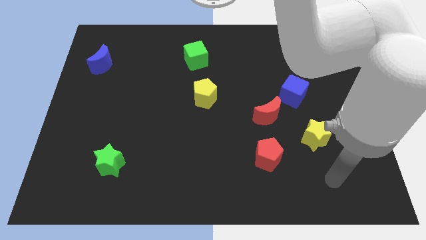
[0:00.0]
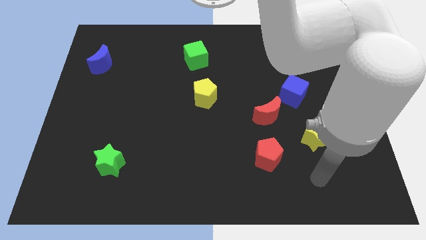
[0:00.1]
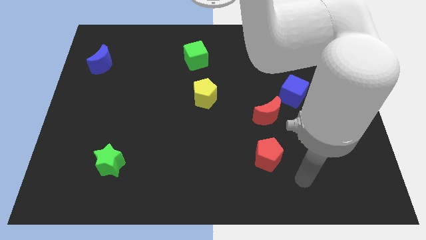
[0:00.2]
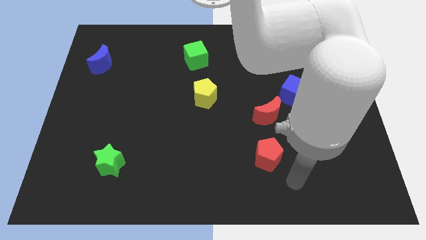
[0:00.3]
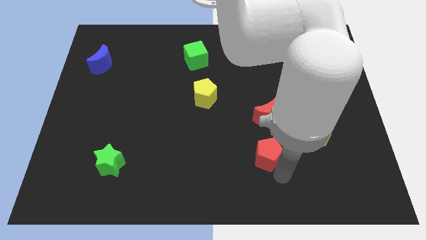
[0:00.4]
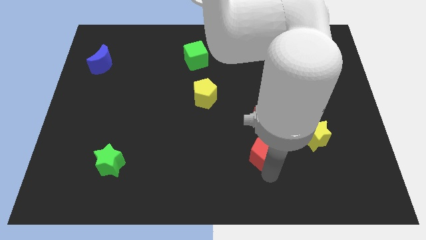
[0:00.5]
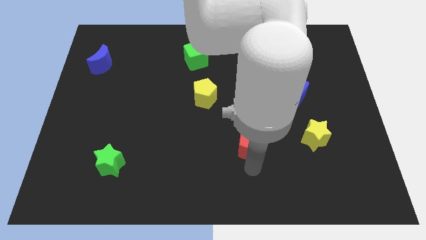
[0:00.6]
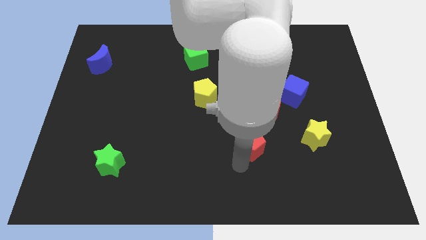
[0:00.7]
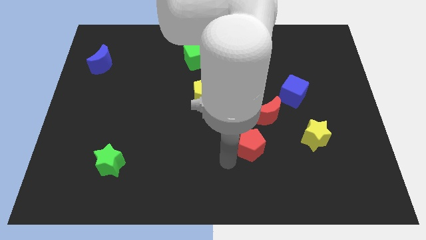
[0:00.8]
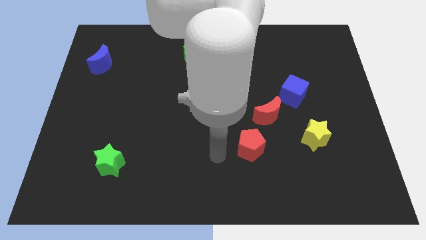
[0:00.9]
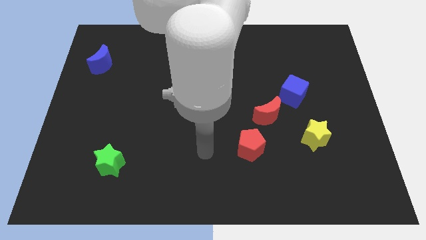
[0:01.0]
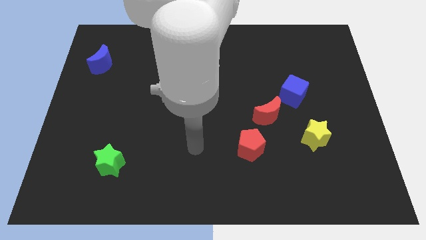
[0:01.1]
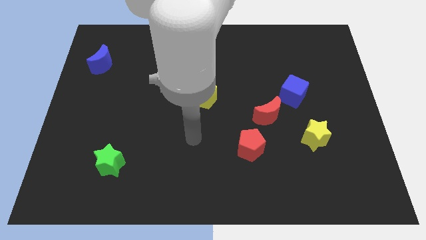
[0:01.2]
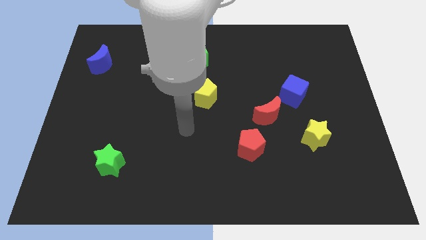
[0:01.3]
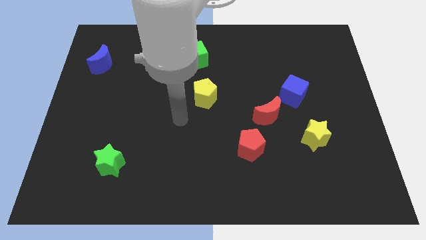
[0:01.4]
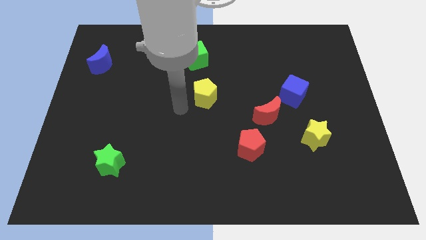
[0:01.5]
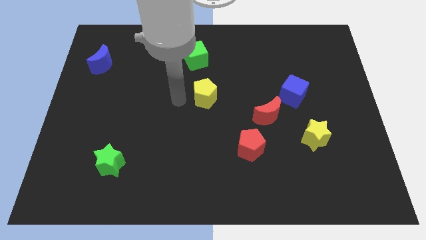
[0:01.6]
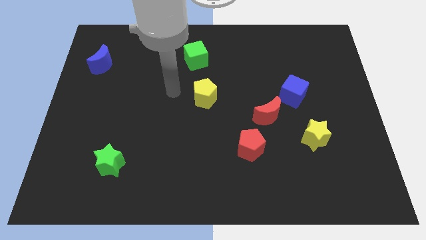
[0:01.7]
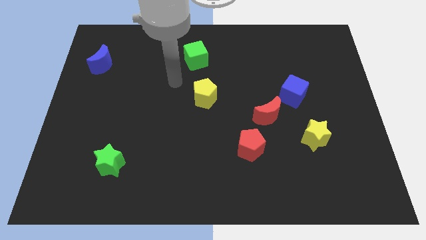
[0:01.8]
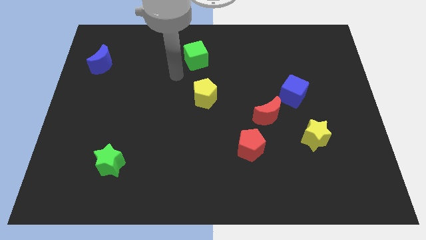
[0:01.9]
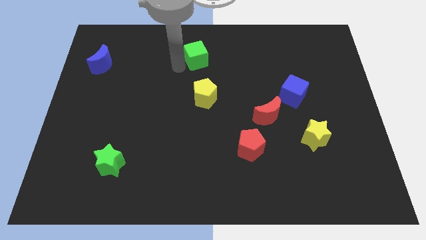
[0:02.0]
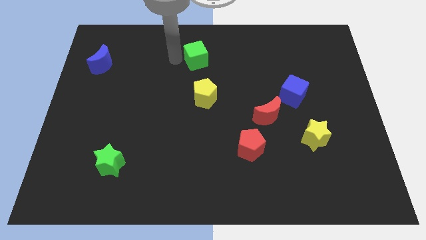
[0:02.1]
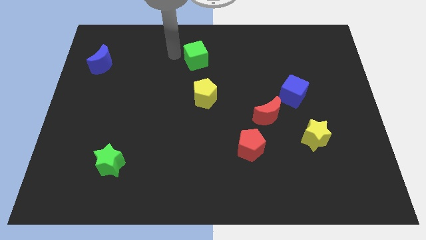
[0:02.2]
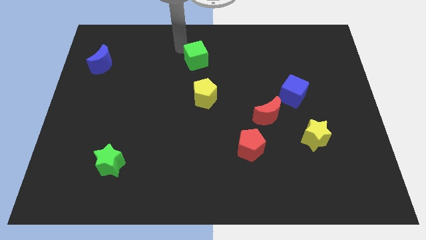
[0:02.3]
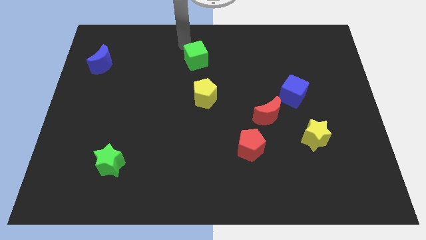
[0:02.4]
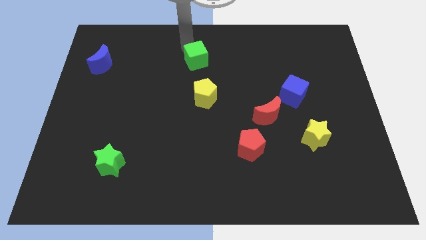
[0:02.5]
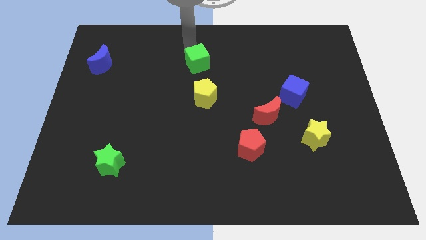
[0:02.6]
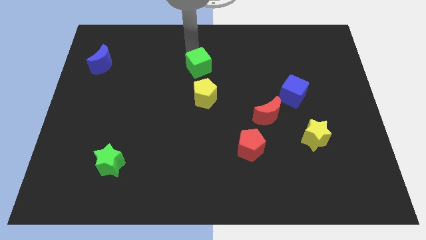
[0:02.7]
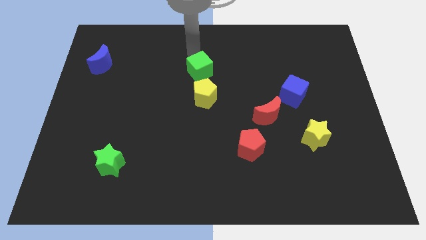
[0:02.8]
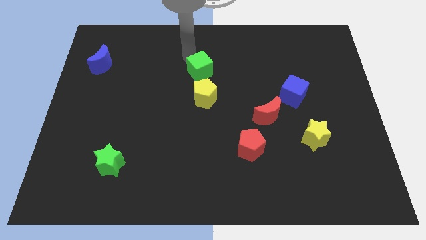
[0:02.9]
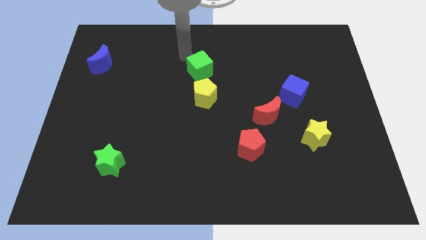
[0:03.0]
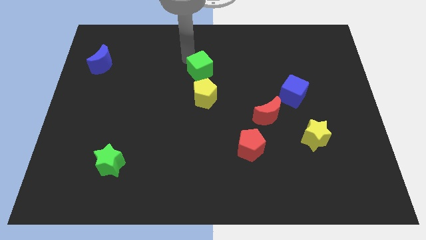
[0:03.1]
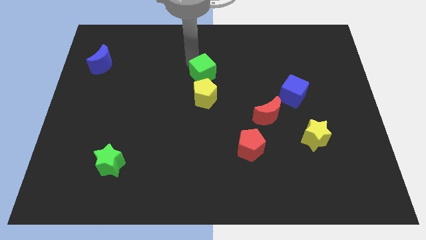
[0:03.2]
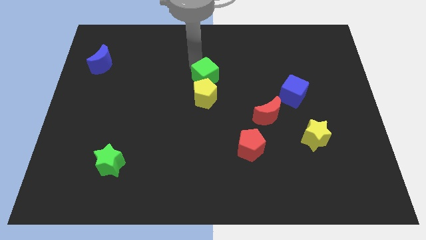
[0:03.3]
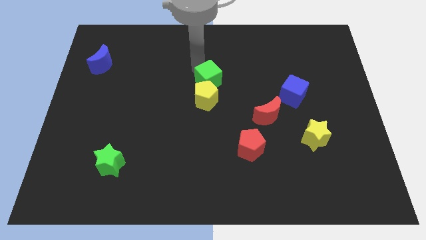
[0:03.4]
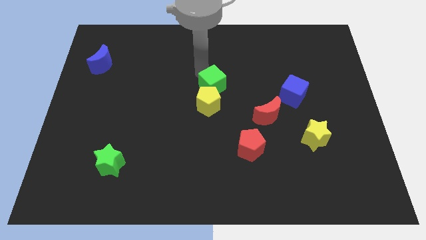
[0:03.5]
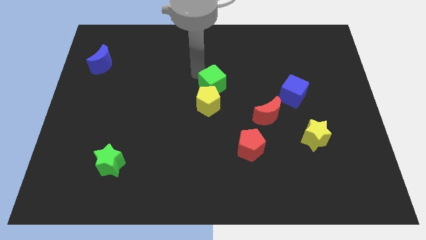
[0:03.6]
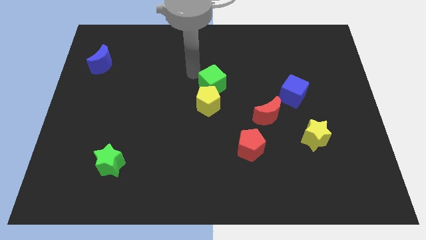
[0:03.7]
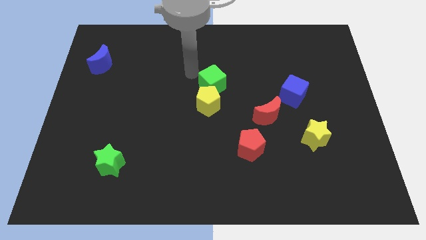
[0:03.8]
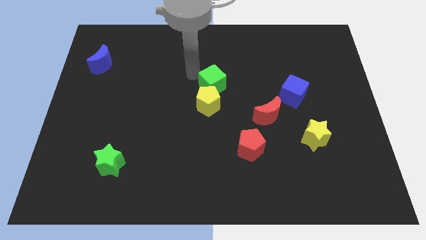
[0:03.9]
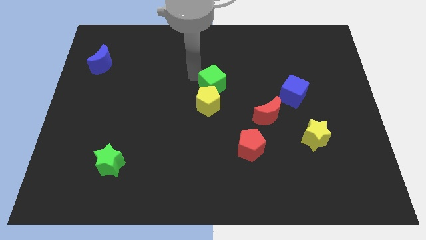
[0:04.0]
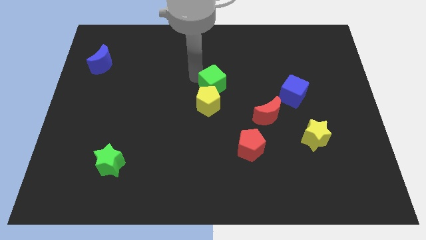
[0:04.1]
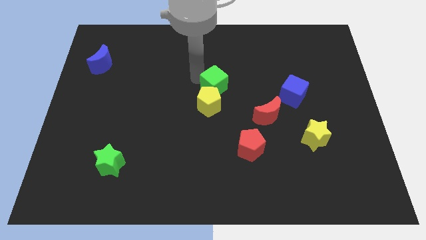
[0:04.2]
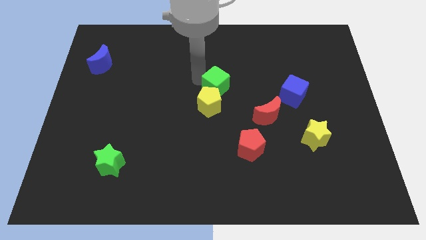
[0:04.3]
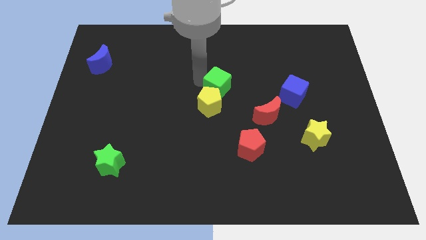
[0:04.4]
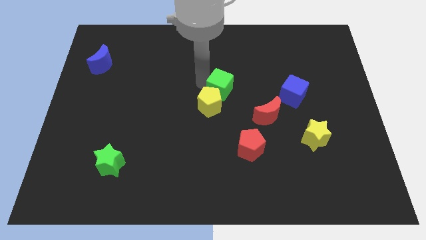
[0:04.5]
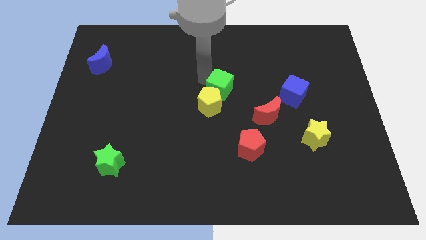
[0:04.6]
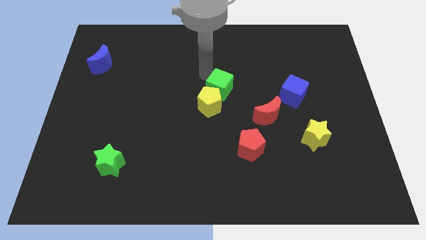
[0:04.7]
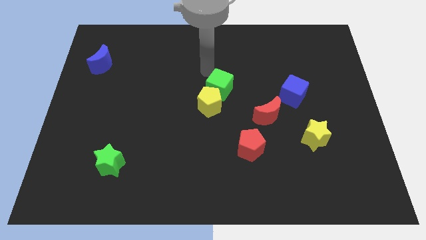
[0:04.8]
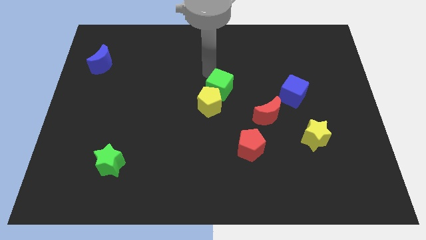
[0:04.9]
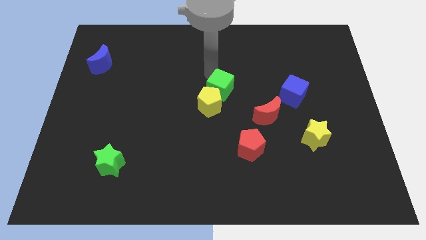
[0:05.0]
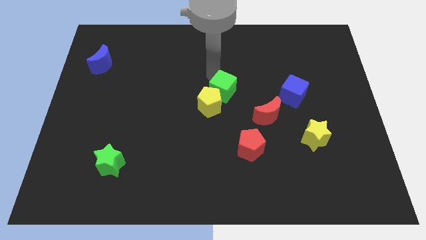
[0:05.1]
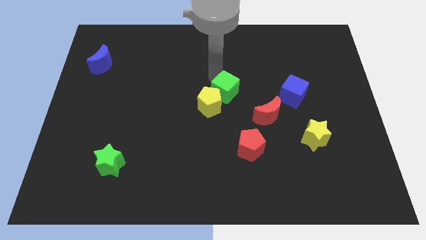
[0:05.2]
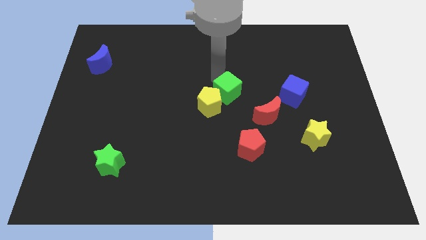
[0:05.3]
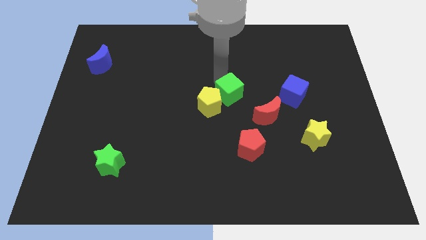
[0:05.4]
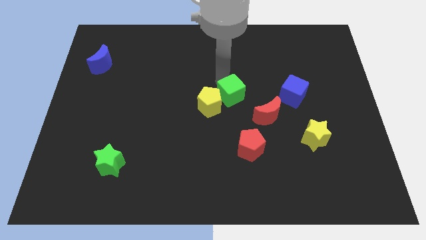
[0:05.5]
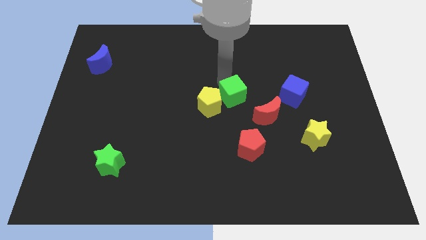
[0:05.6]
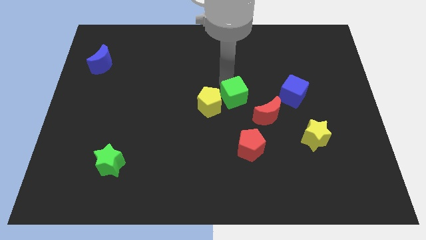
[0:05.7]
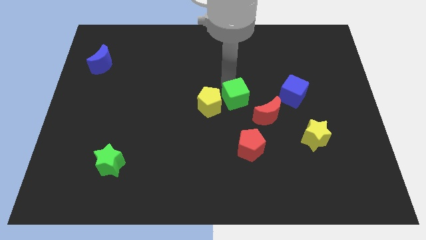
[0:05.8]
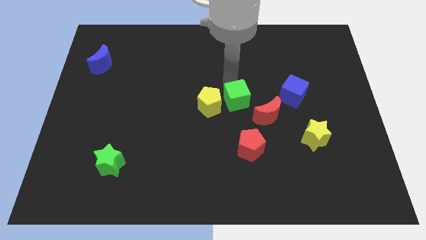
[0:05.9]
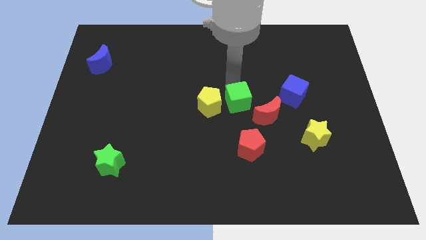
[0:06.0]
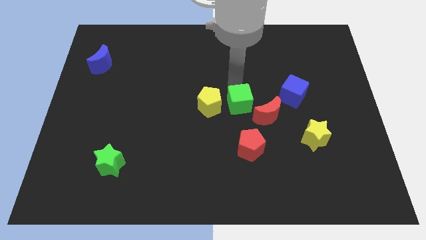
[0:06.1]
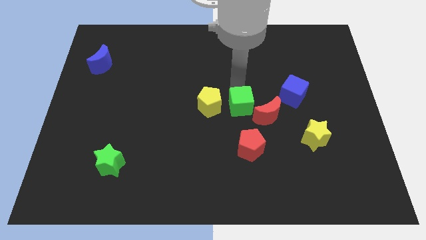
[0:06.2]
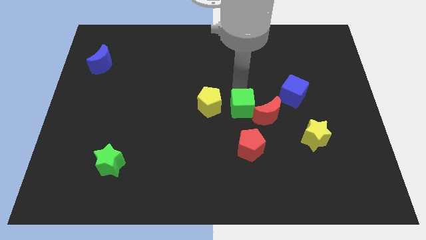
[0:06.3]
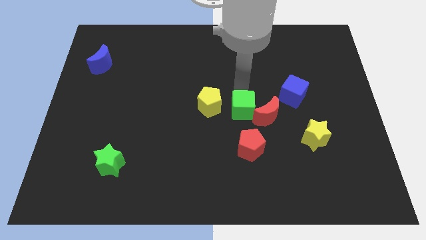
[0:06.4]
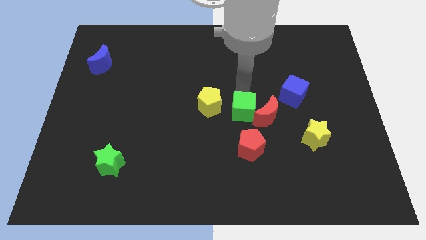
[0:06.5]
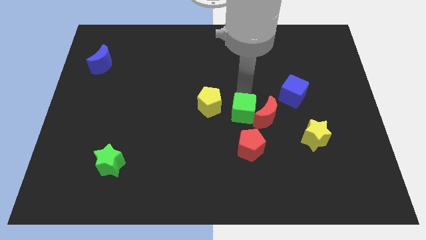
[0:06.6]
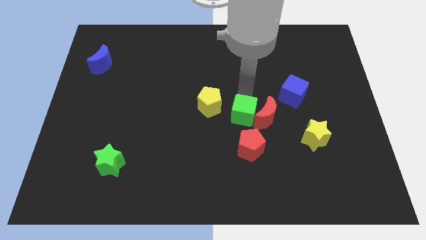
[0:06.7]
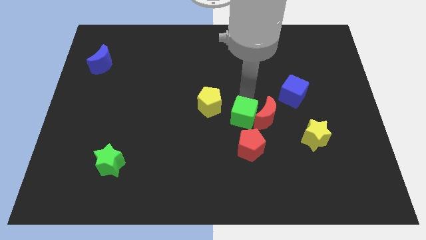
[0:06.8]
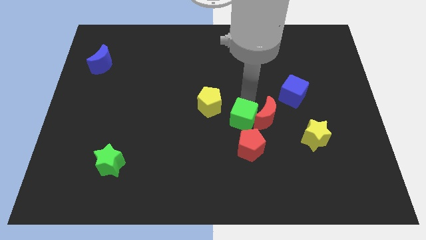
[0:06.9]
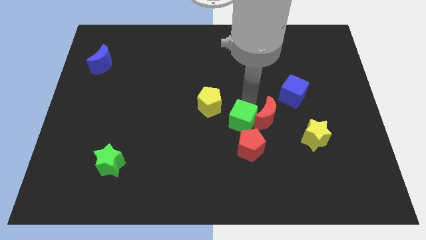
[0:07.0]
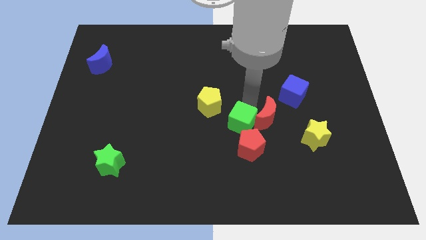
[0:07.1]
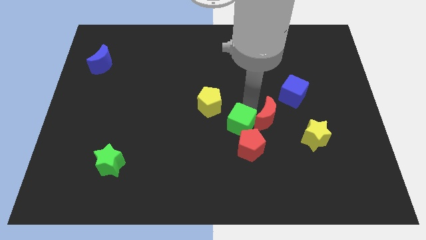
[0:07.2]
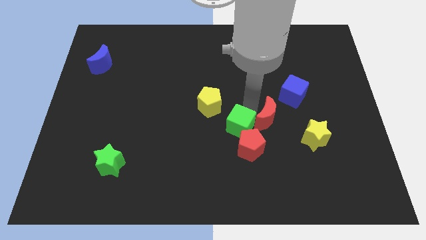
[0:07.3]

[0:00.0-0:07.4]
slide the green cube next to the red pentagon
